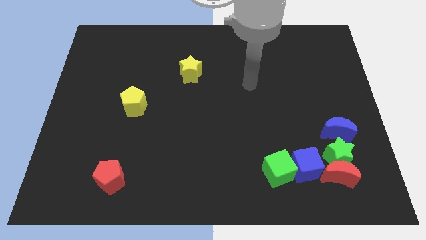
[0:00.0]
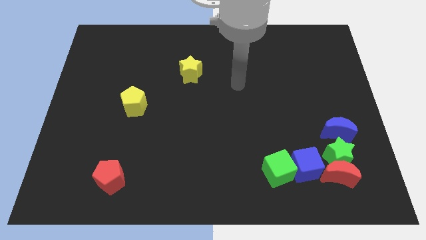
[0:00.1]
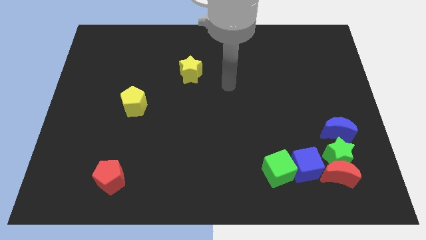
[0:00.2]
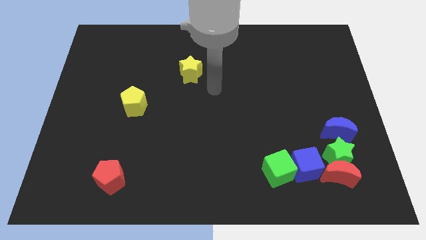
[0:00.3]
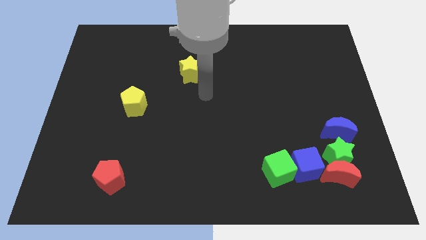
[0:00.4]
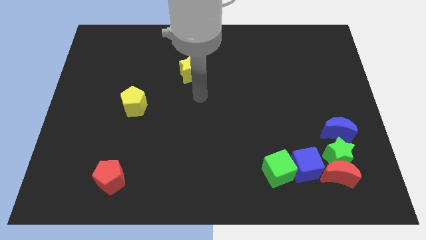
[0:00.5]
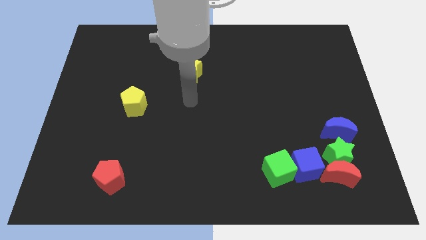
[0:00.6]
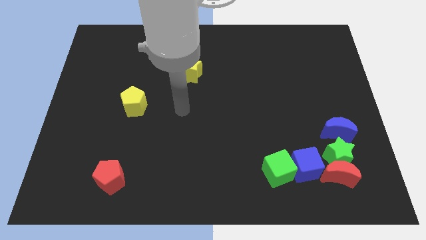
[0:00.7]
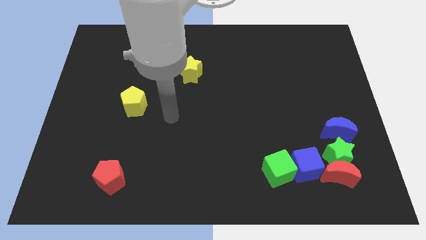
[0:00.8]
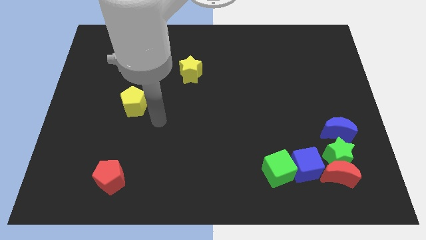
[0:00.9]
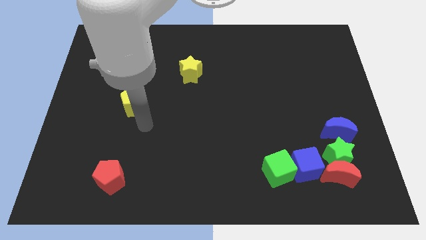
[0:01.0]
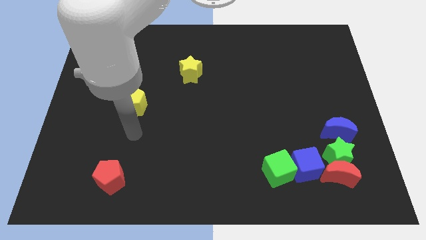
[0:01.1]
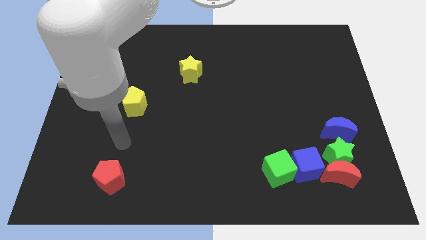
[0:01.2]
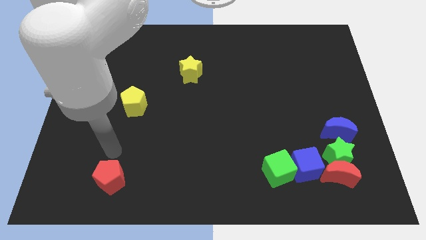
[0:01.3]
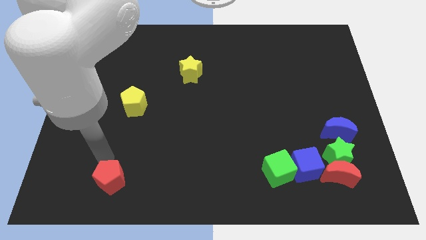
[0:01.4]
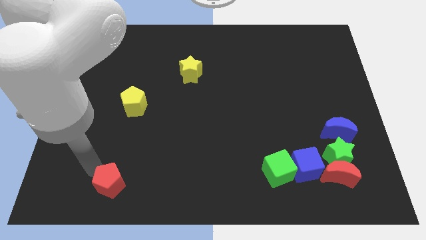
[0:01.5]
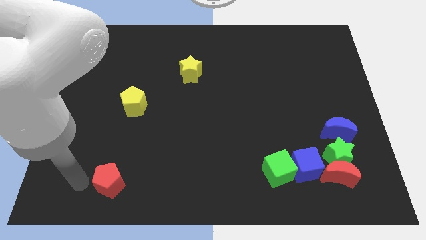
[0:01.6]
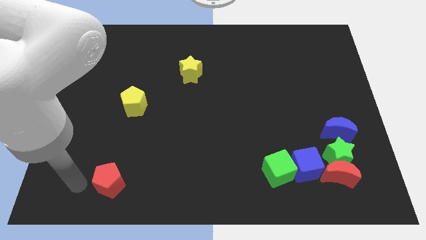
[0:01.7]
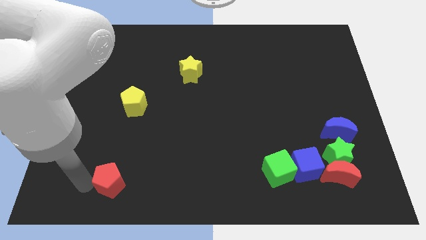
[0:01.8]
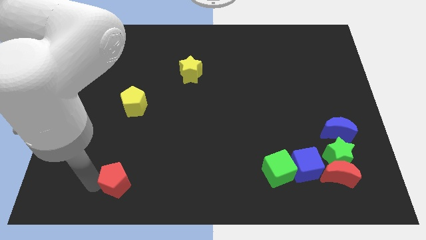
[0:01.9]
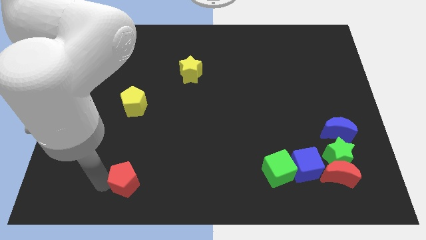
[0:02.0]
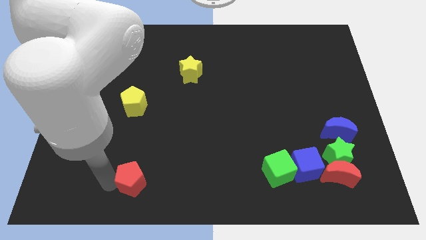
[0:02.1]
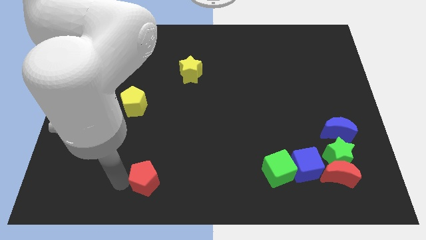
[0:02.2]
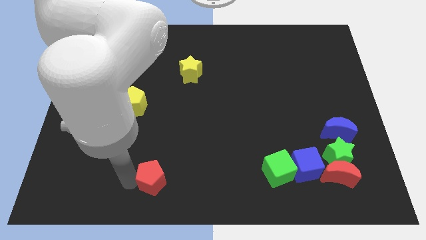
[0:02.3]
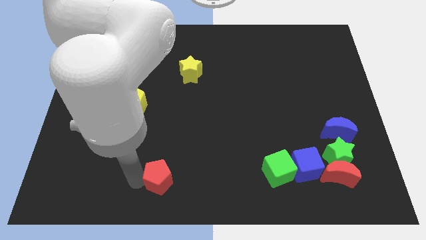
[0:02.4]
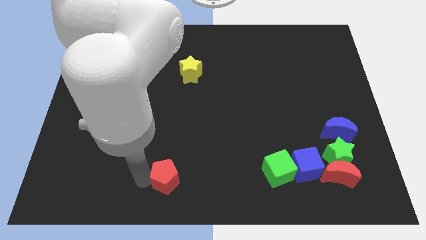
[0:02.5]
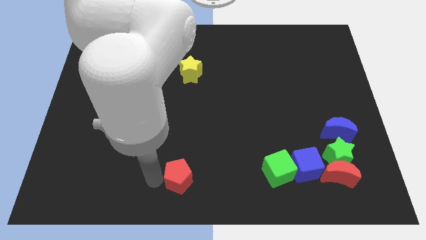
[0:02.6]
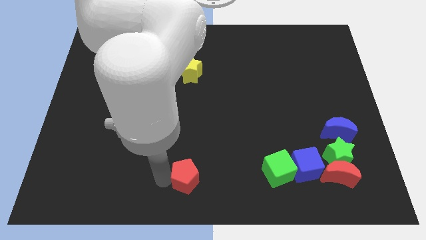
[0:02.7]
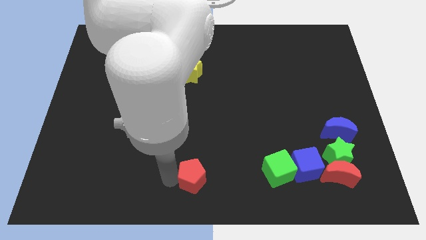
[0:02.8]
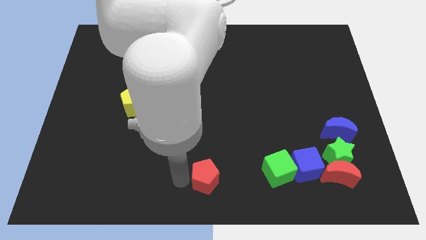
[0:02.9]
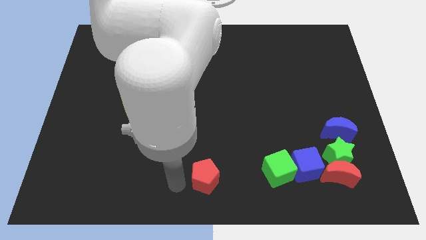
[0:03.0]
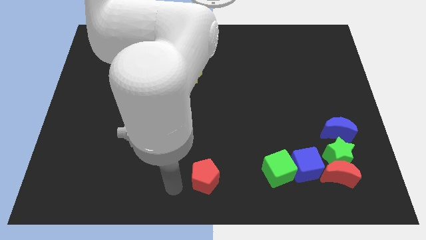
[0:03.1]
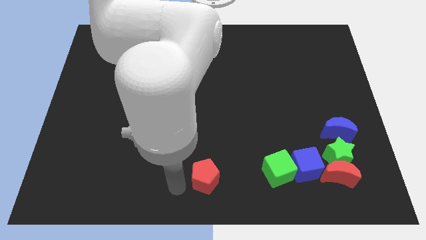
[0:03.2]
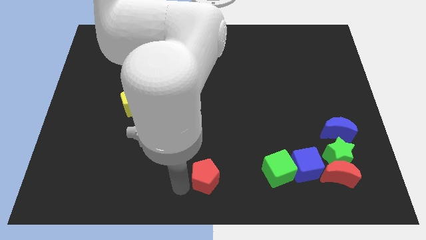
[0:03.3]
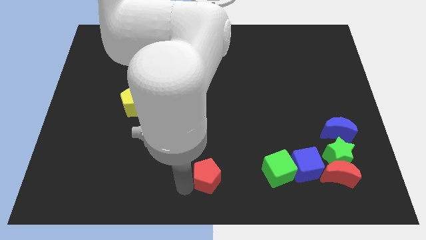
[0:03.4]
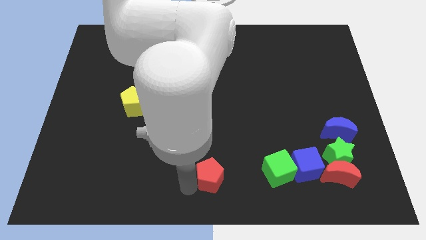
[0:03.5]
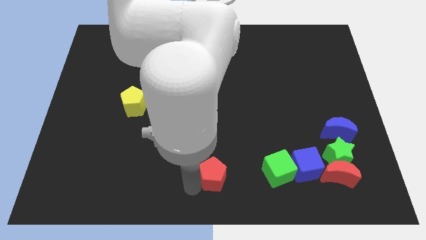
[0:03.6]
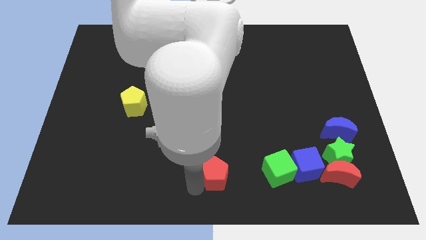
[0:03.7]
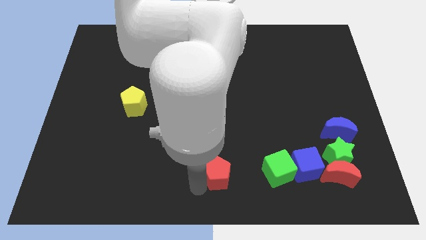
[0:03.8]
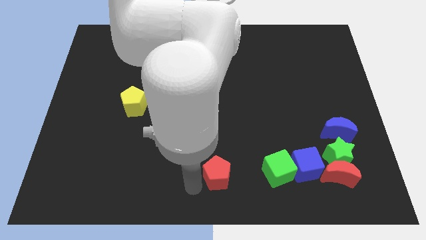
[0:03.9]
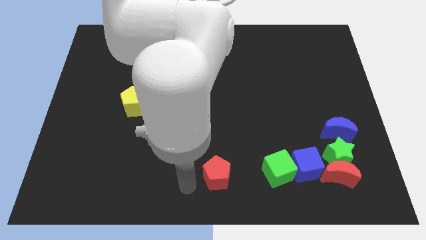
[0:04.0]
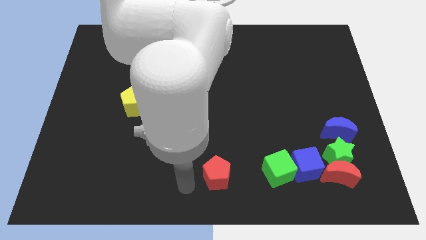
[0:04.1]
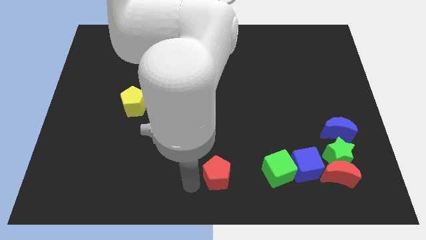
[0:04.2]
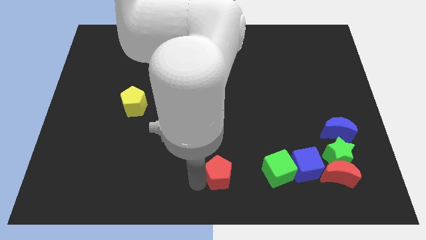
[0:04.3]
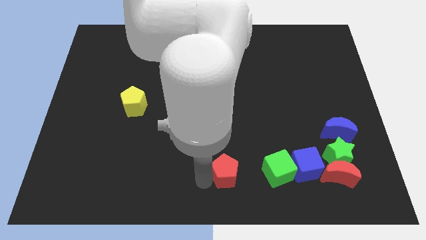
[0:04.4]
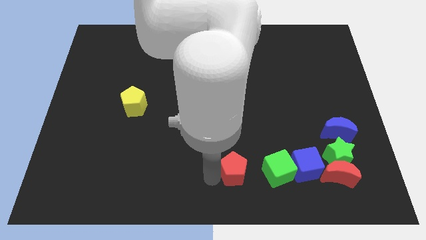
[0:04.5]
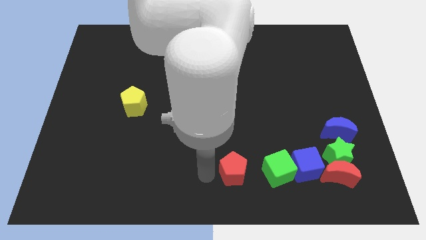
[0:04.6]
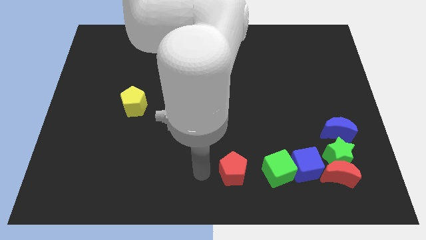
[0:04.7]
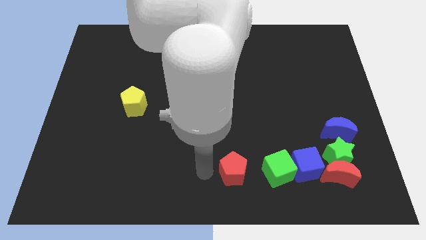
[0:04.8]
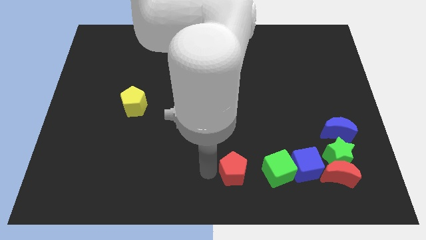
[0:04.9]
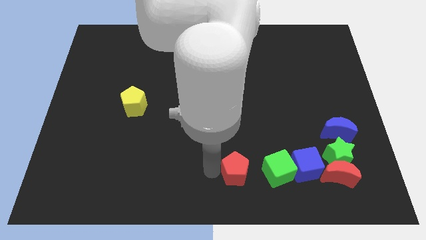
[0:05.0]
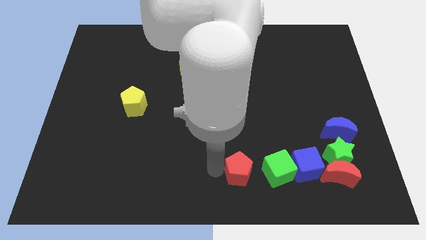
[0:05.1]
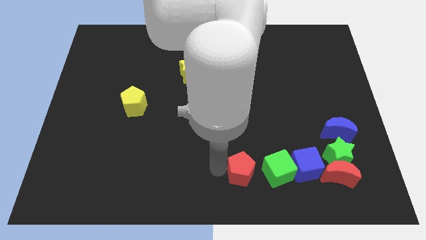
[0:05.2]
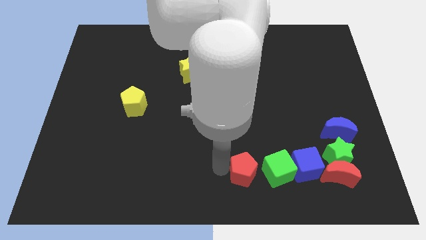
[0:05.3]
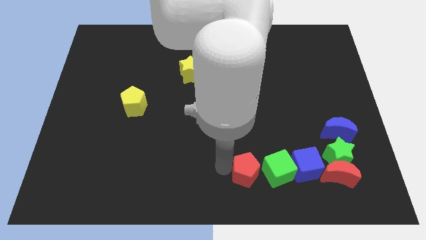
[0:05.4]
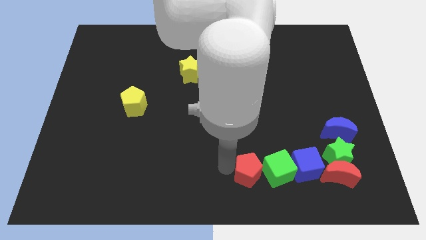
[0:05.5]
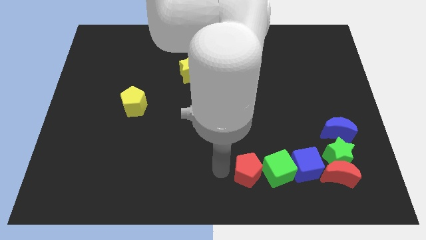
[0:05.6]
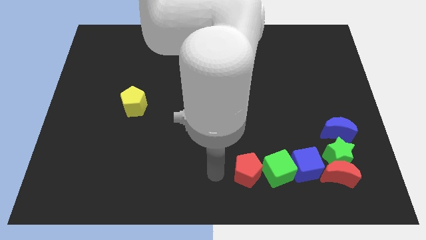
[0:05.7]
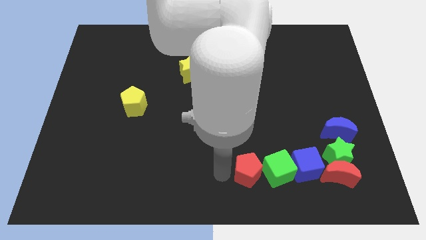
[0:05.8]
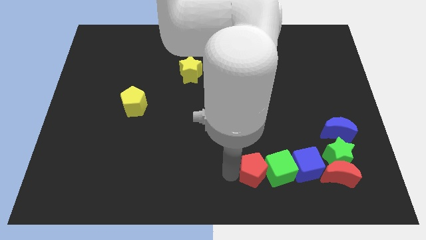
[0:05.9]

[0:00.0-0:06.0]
push the red pentagon close to the green cube

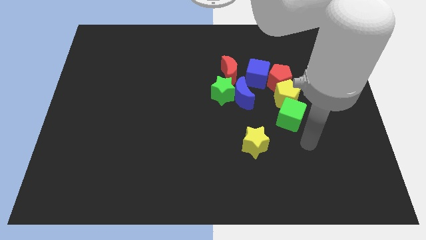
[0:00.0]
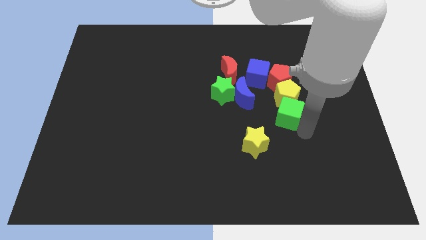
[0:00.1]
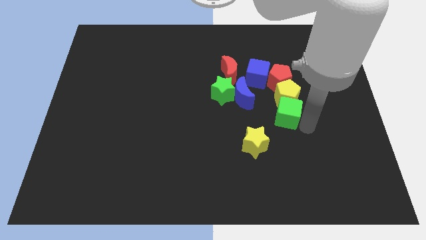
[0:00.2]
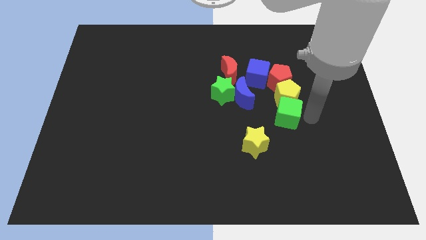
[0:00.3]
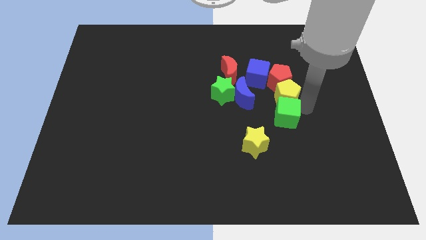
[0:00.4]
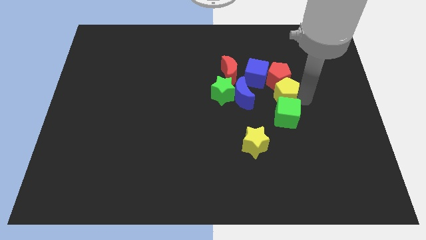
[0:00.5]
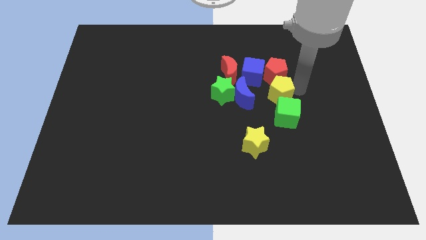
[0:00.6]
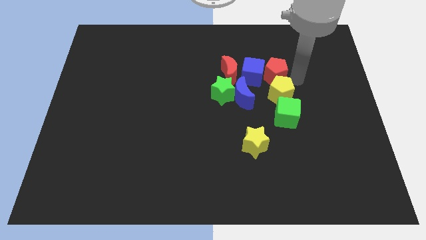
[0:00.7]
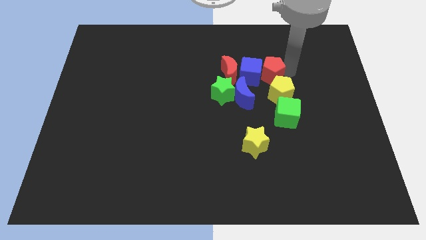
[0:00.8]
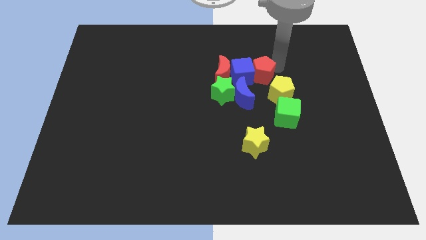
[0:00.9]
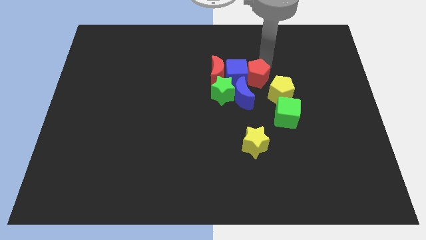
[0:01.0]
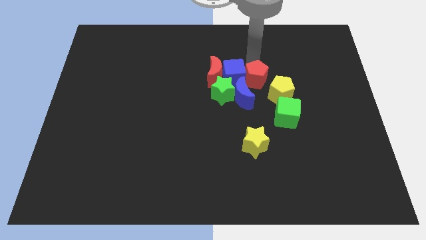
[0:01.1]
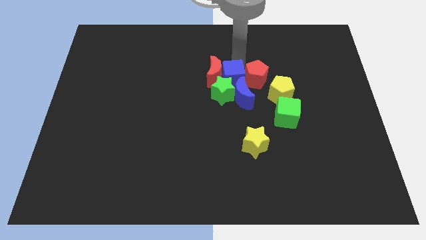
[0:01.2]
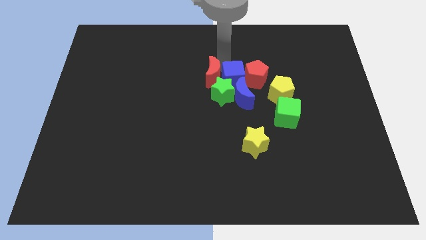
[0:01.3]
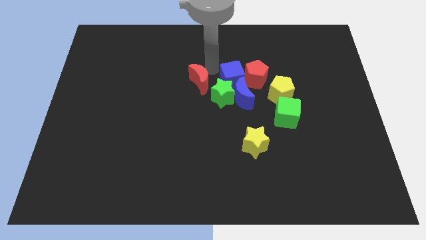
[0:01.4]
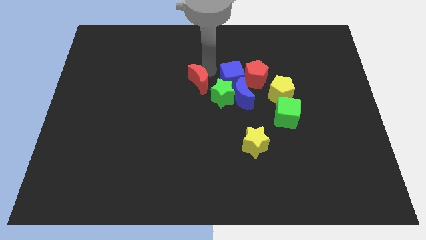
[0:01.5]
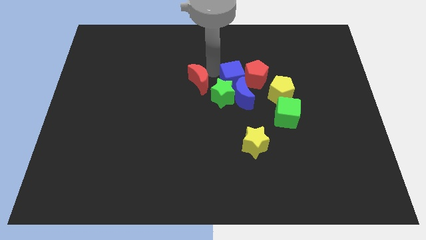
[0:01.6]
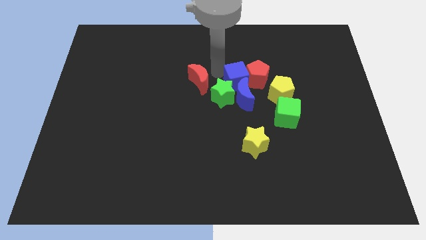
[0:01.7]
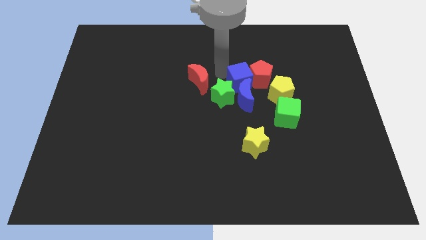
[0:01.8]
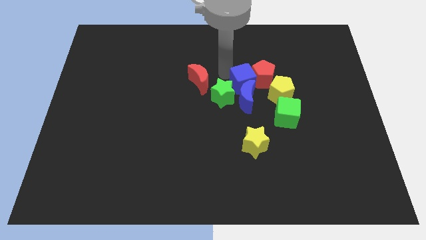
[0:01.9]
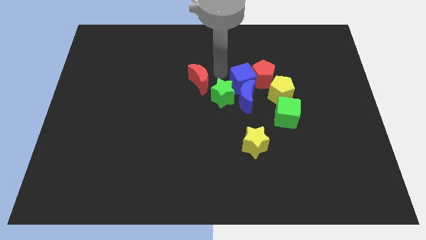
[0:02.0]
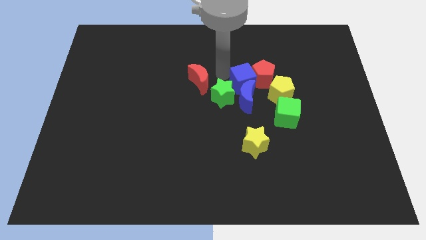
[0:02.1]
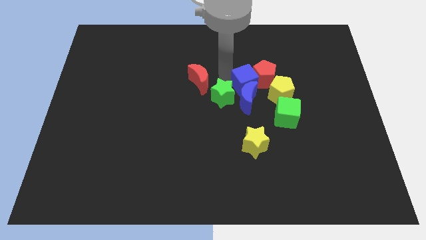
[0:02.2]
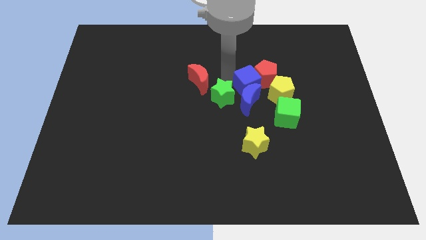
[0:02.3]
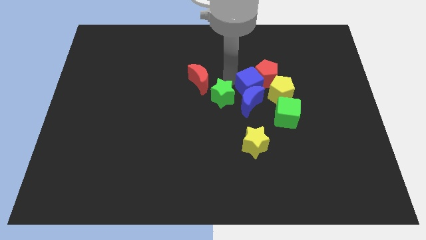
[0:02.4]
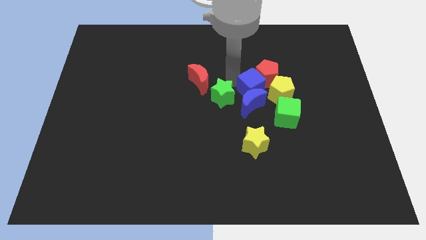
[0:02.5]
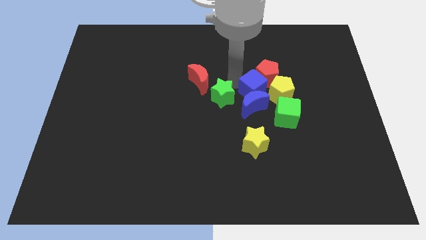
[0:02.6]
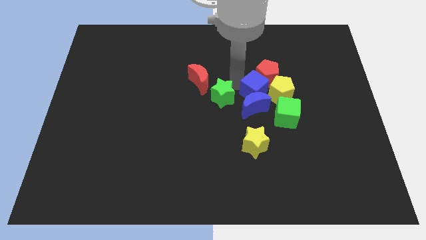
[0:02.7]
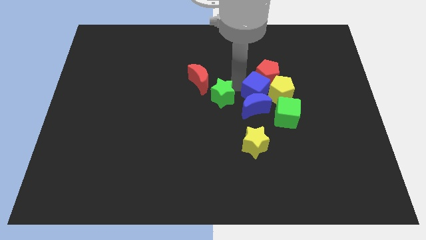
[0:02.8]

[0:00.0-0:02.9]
put the blue cube next to the yellow pentagon
